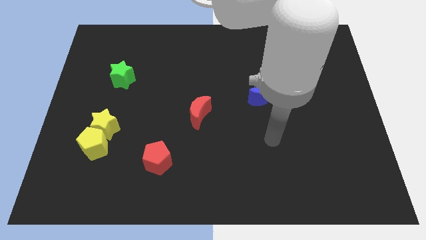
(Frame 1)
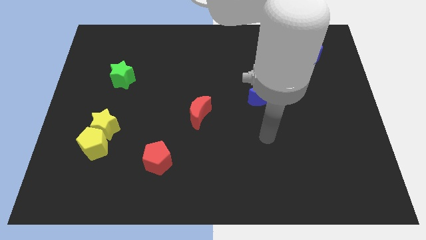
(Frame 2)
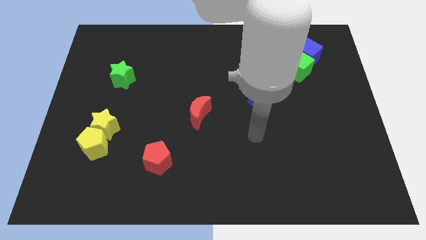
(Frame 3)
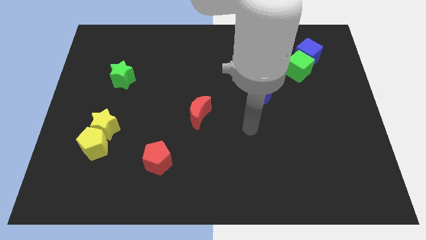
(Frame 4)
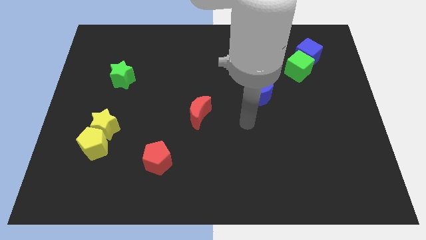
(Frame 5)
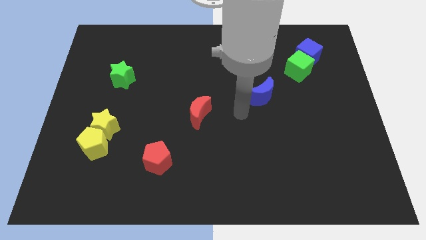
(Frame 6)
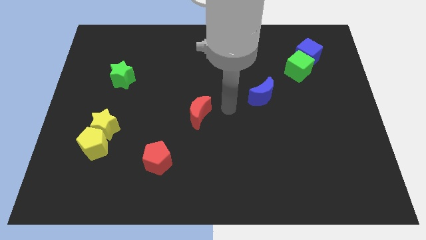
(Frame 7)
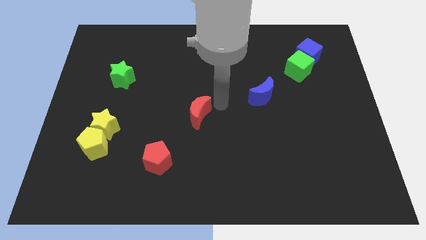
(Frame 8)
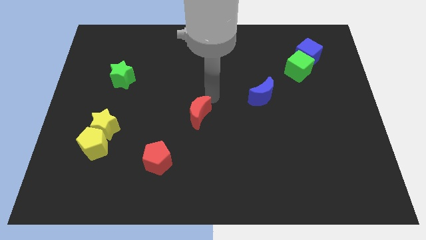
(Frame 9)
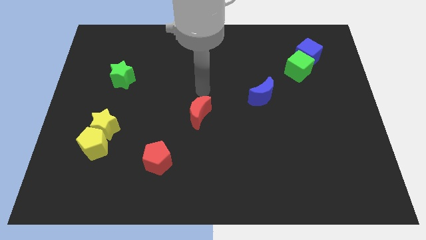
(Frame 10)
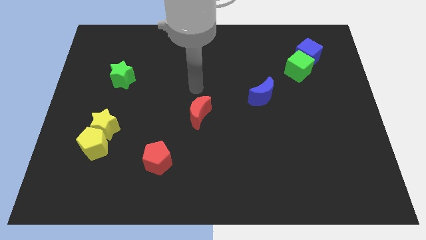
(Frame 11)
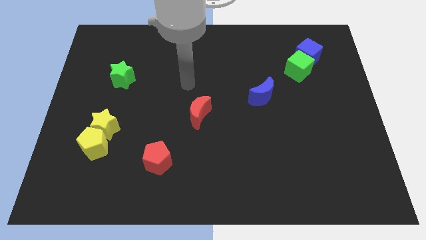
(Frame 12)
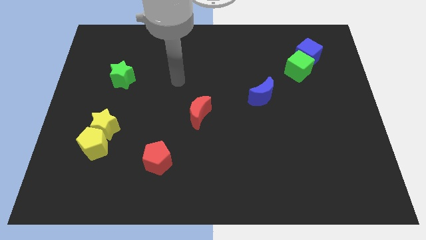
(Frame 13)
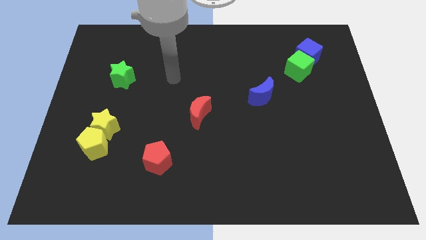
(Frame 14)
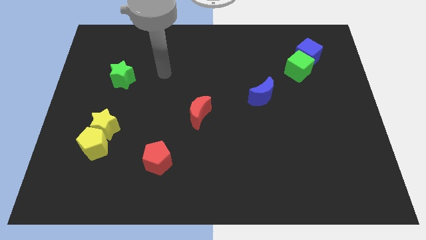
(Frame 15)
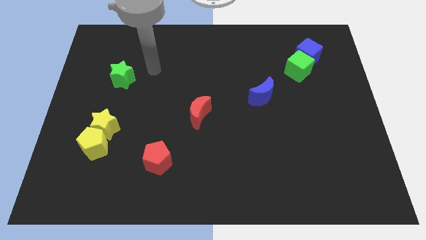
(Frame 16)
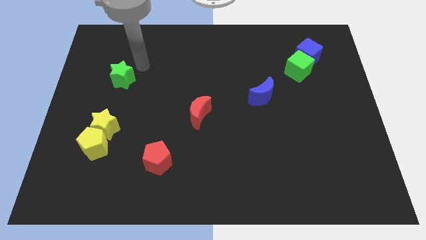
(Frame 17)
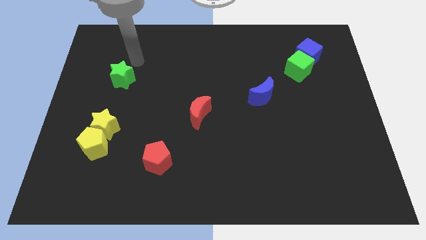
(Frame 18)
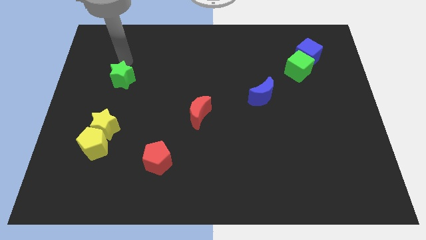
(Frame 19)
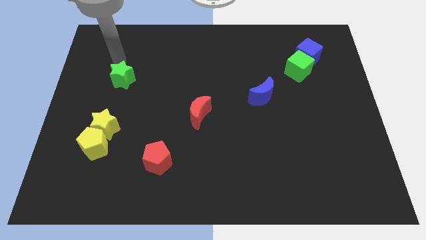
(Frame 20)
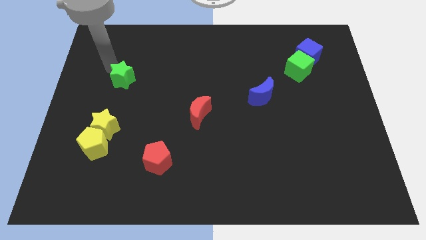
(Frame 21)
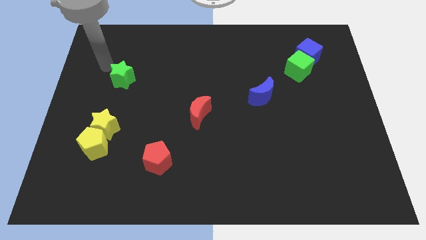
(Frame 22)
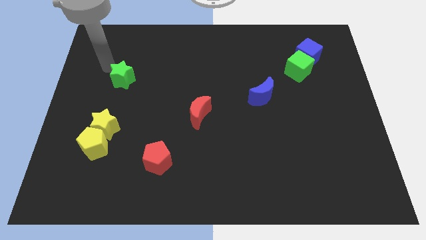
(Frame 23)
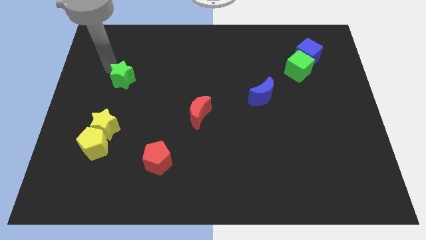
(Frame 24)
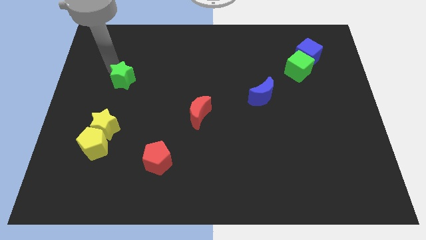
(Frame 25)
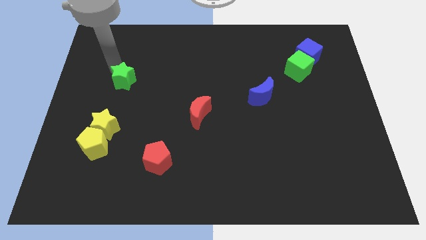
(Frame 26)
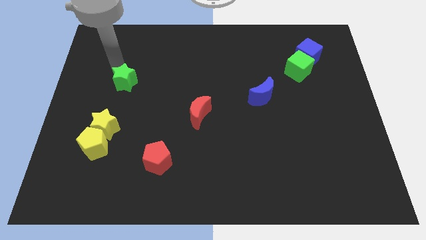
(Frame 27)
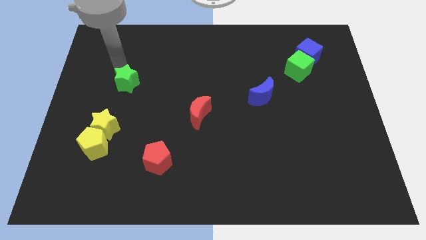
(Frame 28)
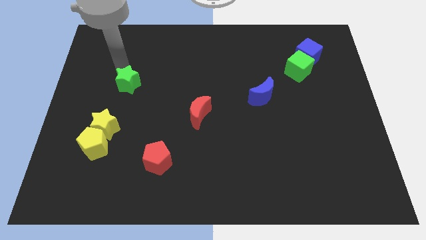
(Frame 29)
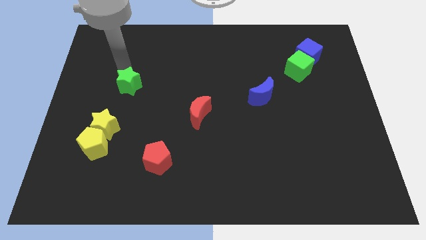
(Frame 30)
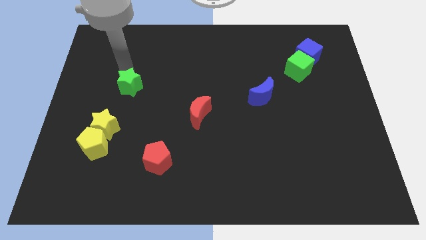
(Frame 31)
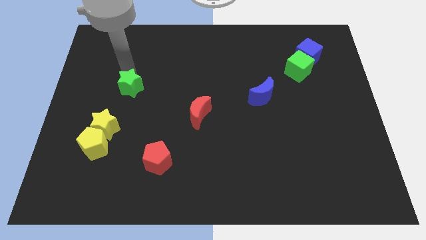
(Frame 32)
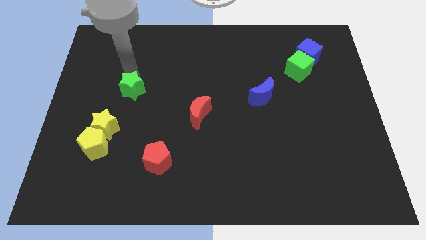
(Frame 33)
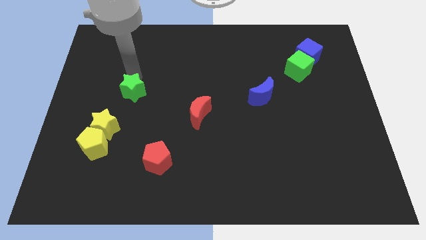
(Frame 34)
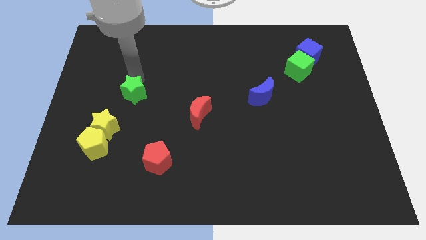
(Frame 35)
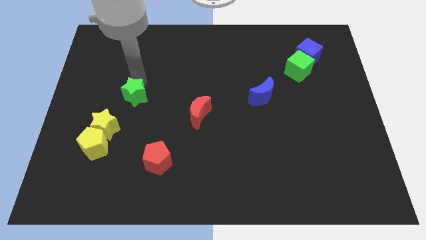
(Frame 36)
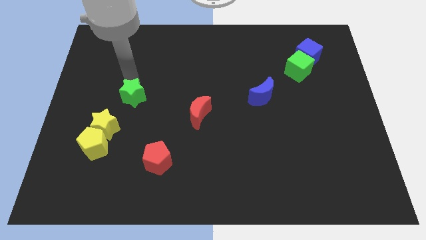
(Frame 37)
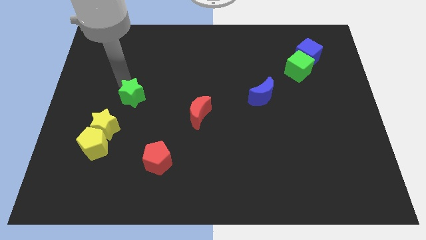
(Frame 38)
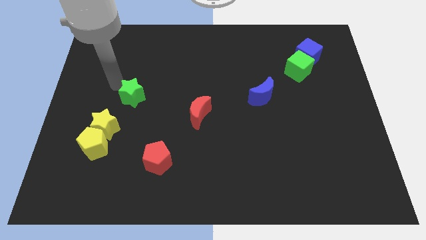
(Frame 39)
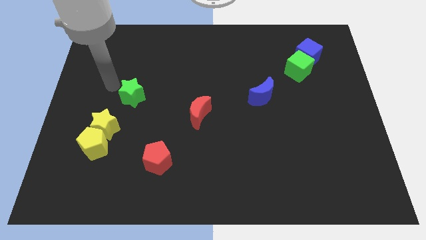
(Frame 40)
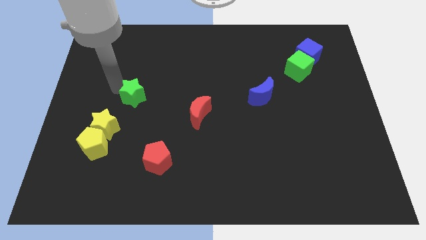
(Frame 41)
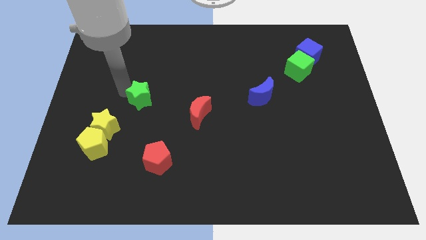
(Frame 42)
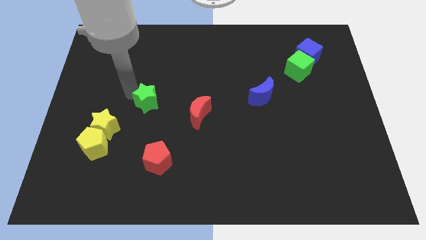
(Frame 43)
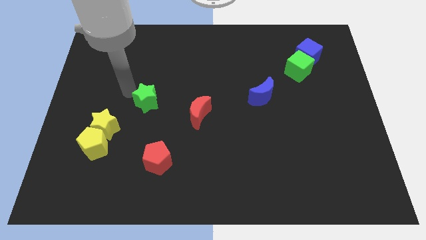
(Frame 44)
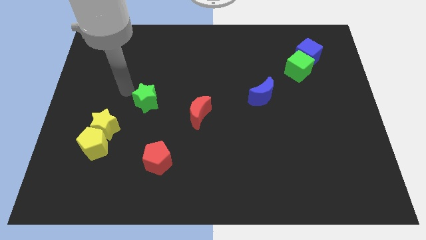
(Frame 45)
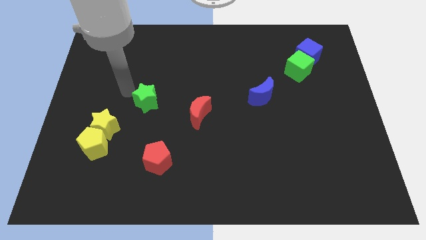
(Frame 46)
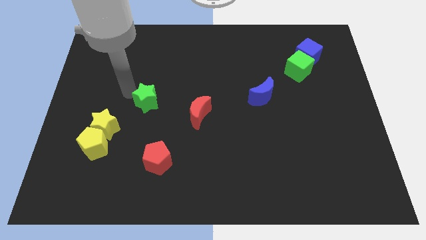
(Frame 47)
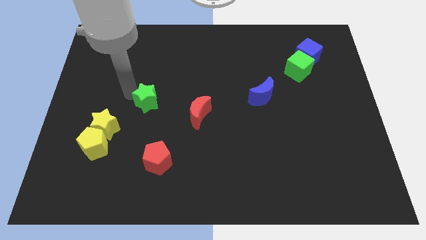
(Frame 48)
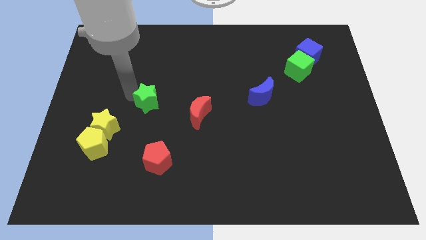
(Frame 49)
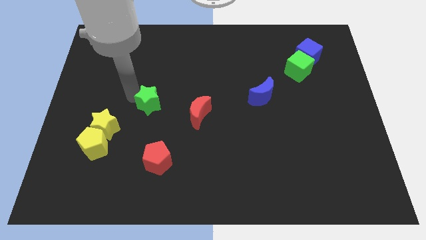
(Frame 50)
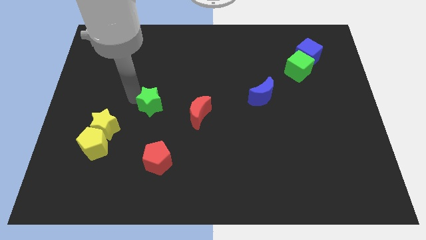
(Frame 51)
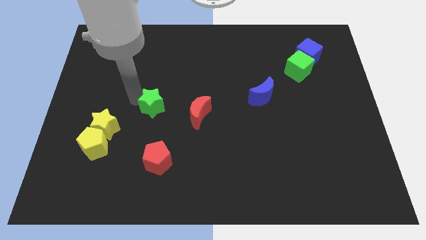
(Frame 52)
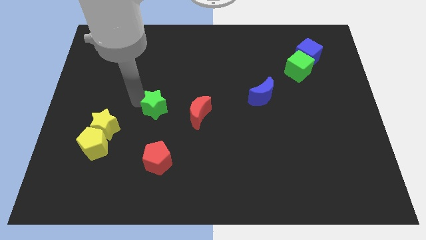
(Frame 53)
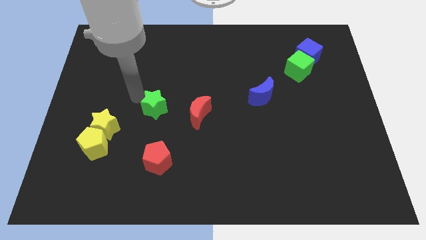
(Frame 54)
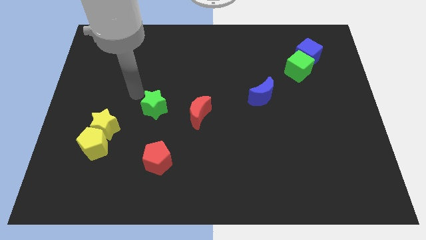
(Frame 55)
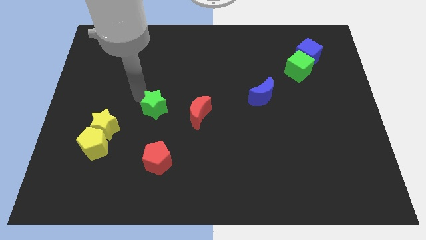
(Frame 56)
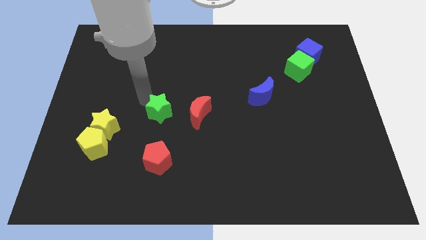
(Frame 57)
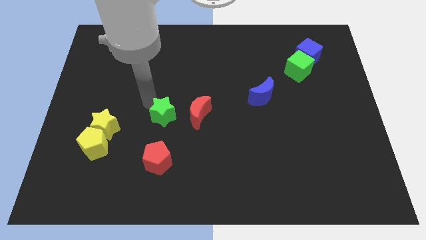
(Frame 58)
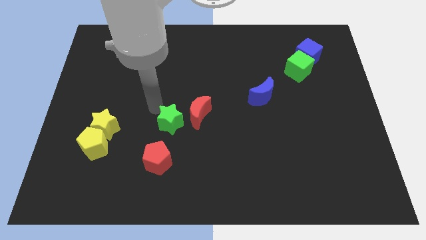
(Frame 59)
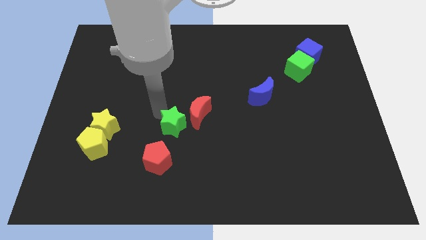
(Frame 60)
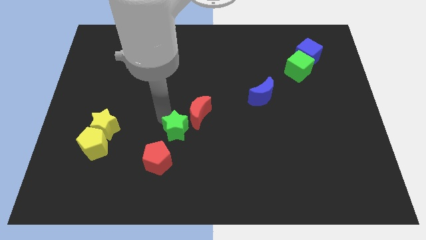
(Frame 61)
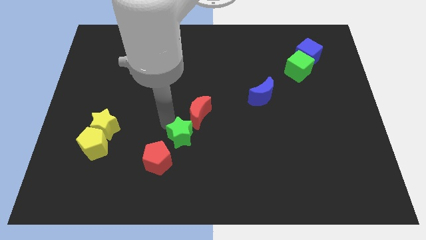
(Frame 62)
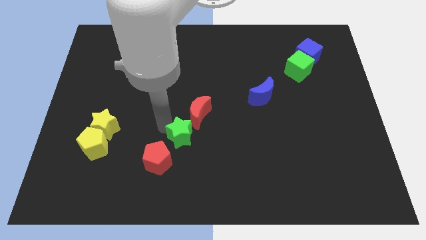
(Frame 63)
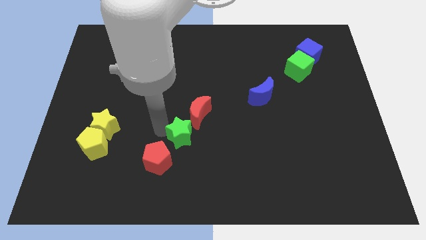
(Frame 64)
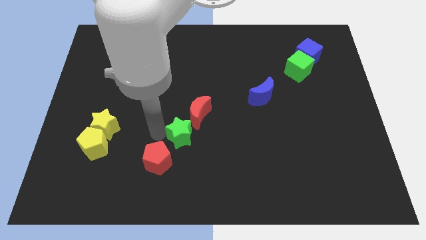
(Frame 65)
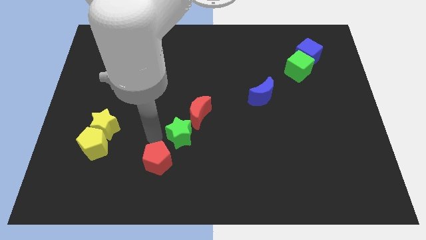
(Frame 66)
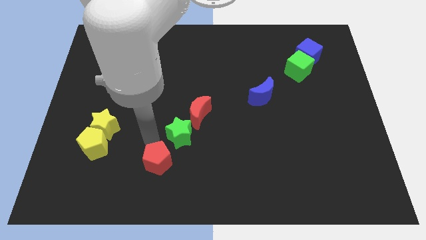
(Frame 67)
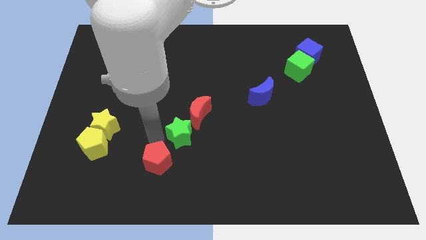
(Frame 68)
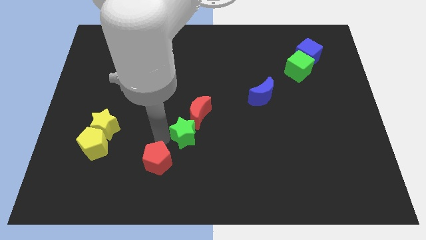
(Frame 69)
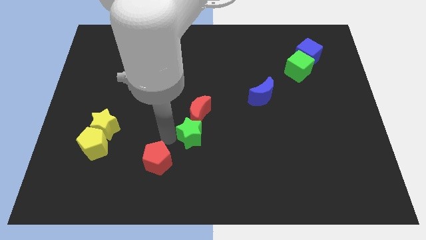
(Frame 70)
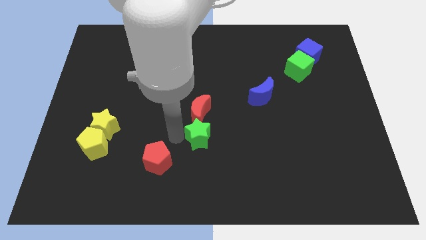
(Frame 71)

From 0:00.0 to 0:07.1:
push the green star to the bottom right side of the red moon
